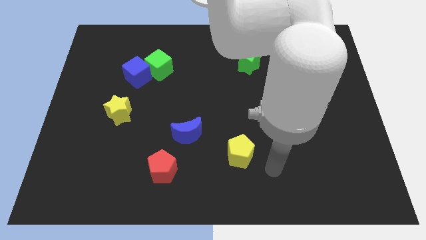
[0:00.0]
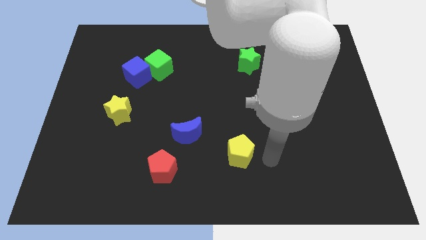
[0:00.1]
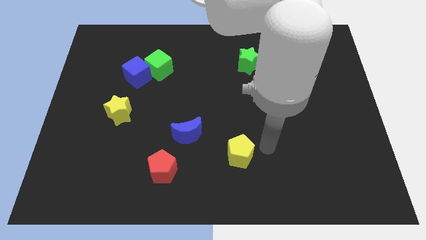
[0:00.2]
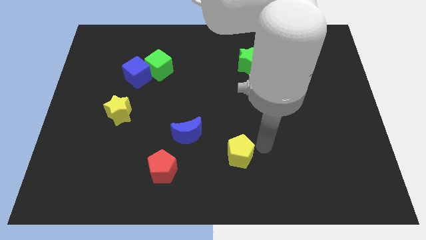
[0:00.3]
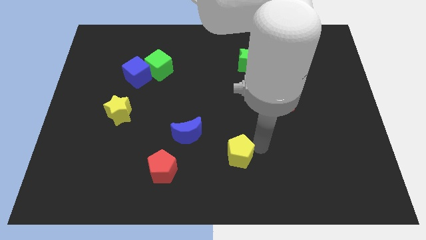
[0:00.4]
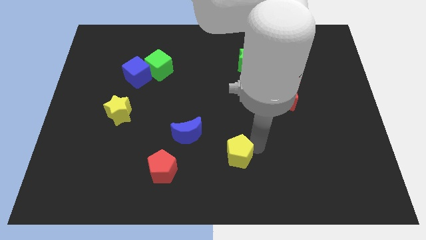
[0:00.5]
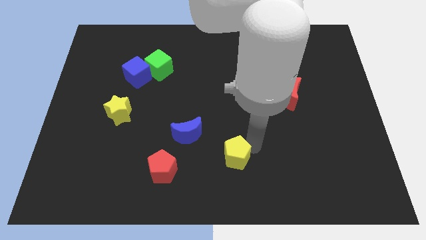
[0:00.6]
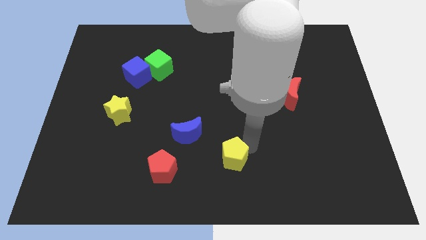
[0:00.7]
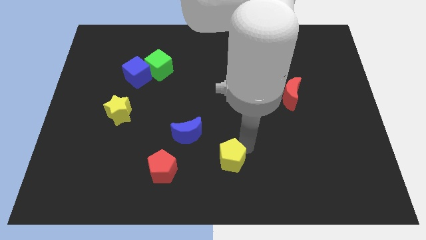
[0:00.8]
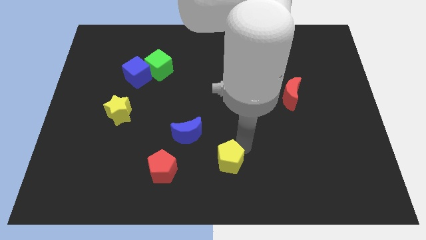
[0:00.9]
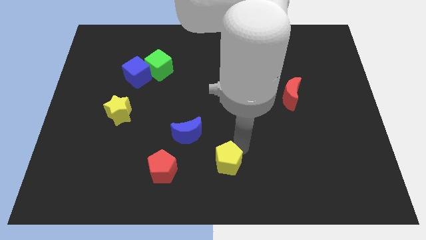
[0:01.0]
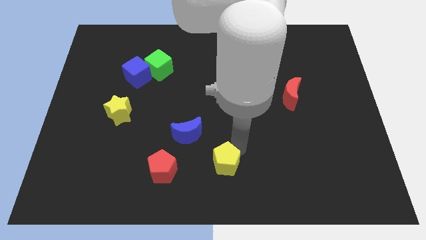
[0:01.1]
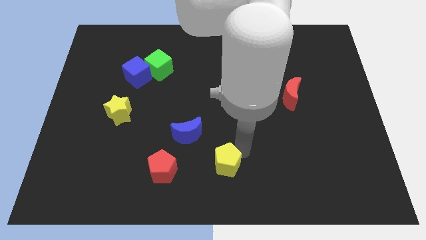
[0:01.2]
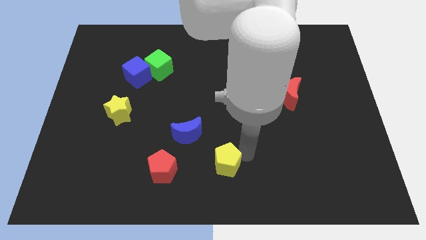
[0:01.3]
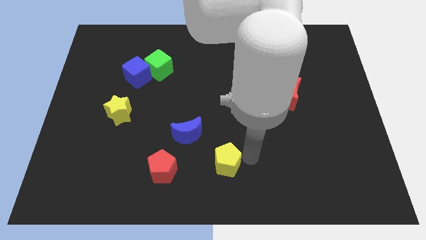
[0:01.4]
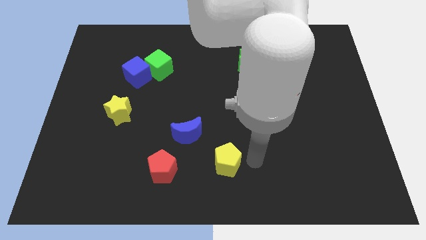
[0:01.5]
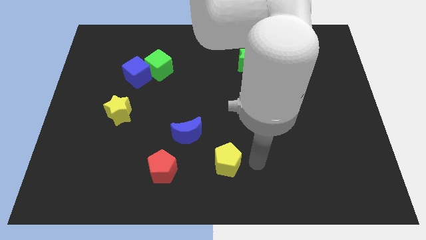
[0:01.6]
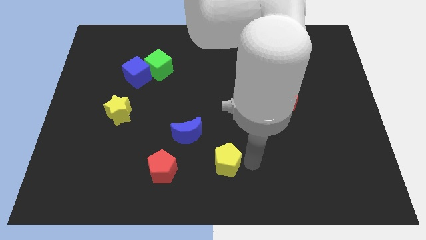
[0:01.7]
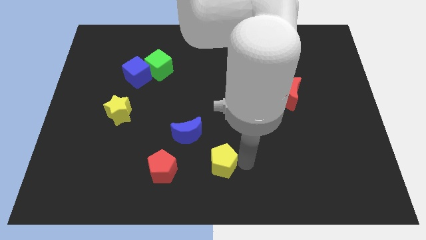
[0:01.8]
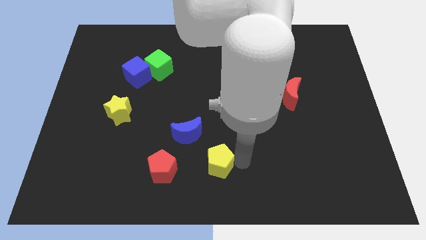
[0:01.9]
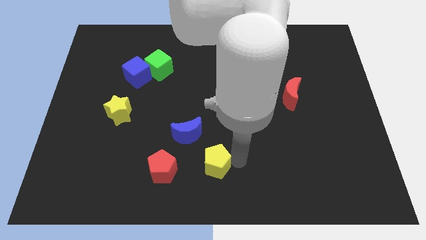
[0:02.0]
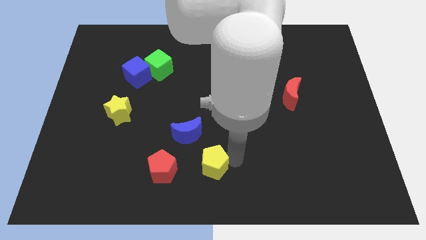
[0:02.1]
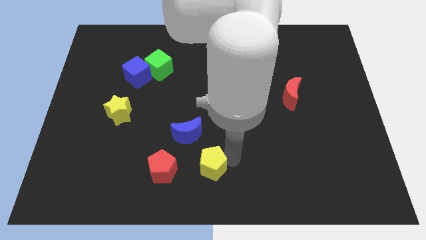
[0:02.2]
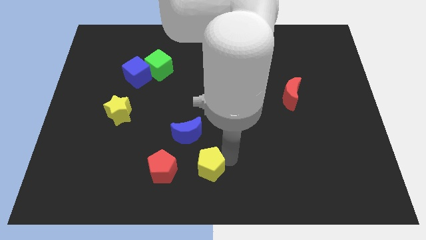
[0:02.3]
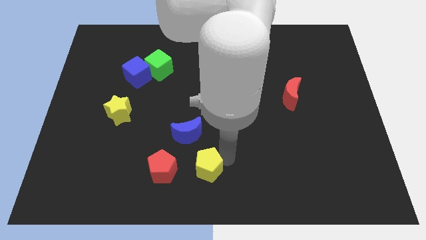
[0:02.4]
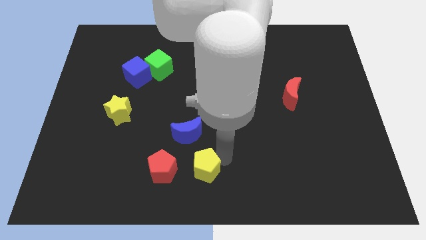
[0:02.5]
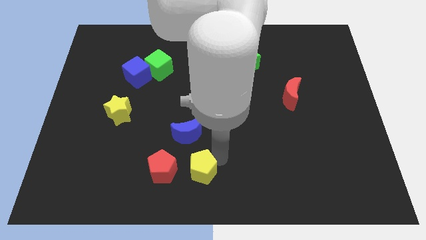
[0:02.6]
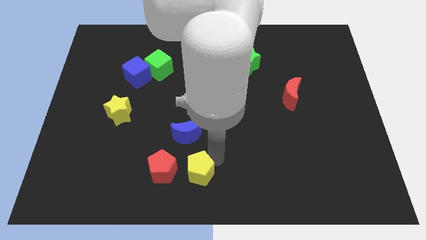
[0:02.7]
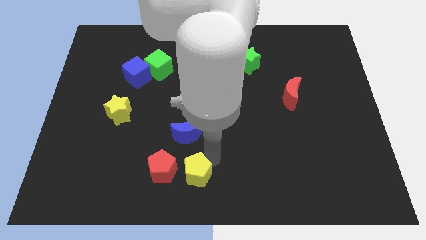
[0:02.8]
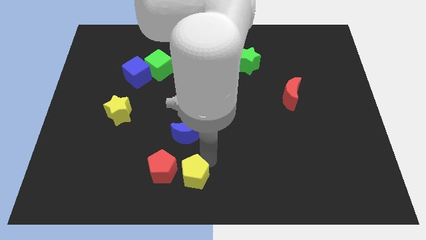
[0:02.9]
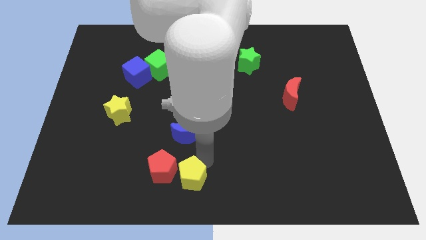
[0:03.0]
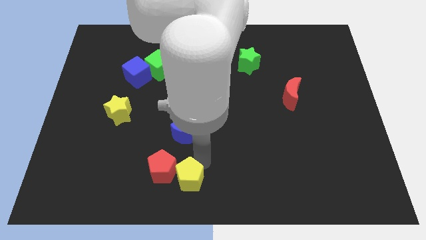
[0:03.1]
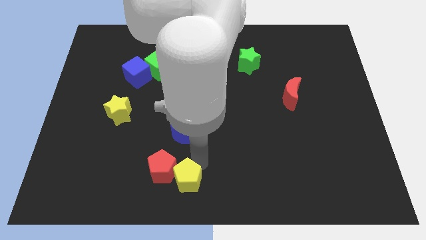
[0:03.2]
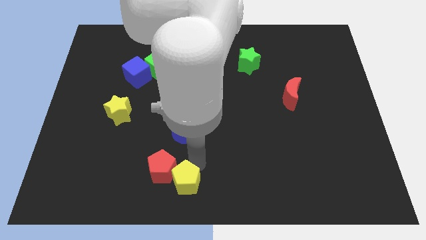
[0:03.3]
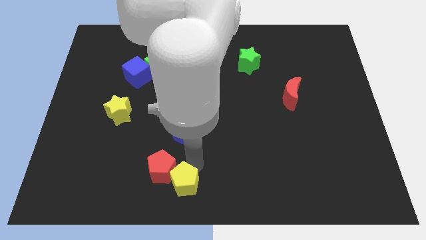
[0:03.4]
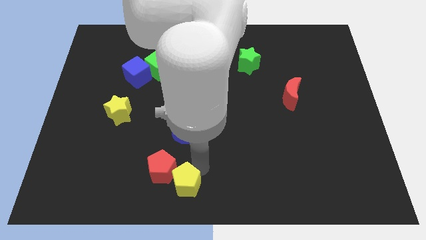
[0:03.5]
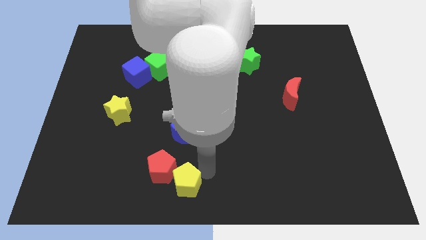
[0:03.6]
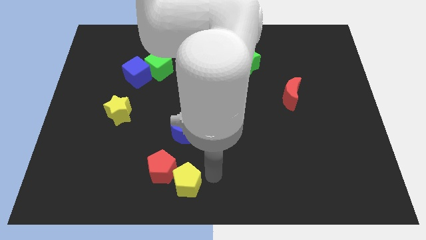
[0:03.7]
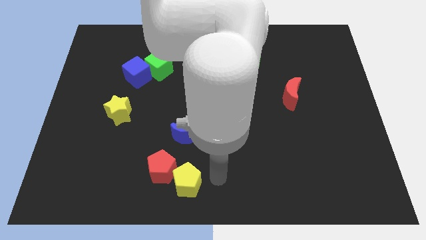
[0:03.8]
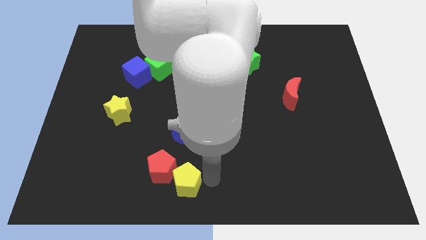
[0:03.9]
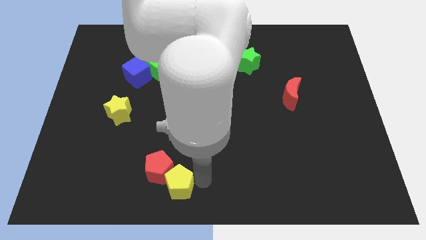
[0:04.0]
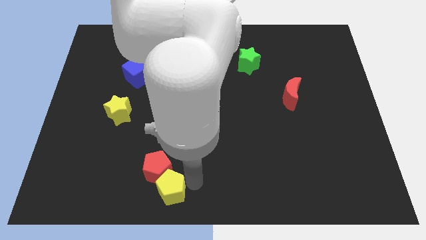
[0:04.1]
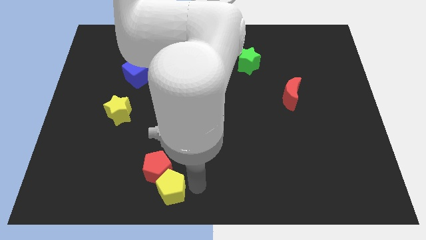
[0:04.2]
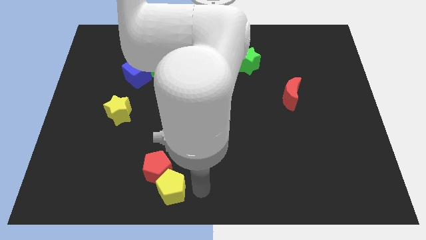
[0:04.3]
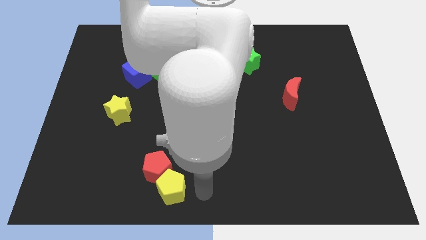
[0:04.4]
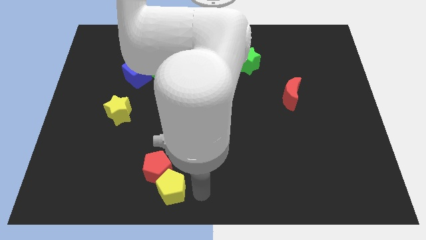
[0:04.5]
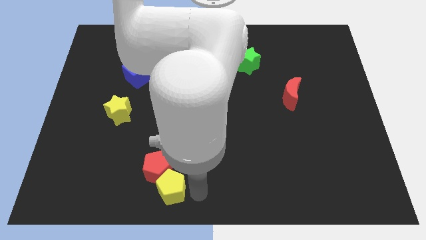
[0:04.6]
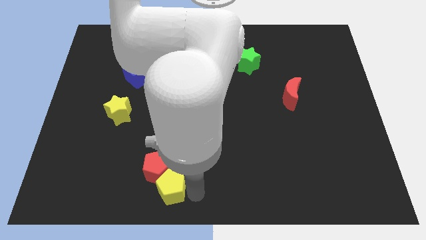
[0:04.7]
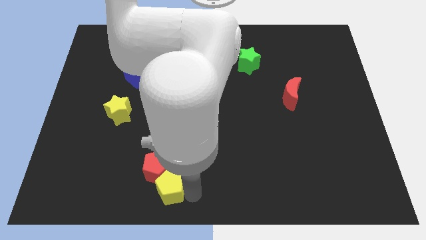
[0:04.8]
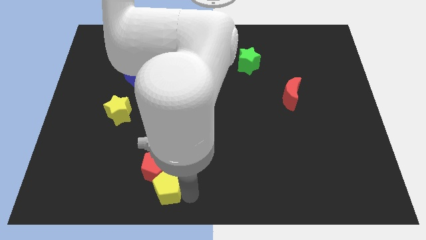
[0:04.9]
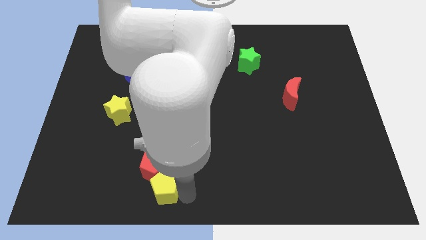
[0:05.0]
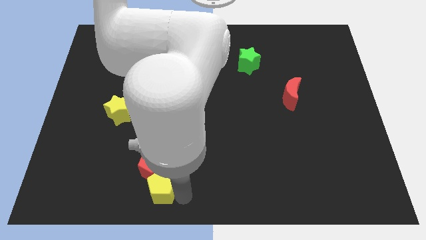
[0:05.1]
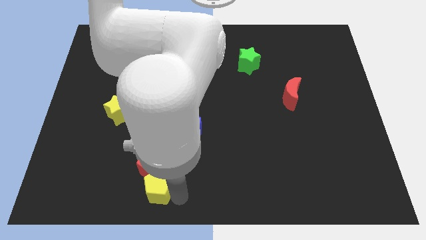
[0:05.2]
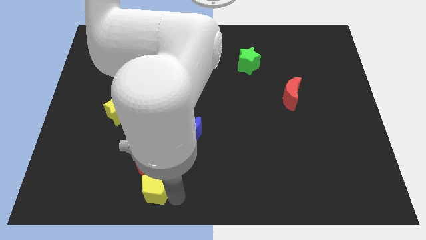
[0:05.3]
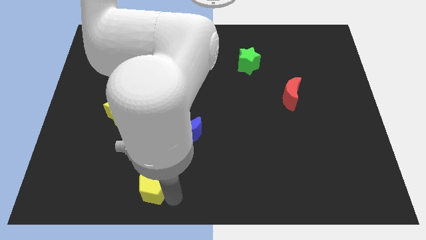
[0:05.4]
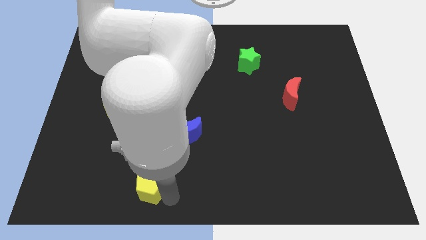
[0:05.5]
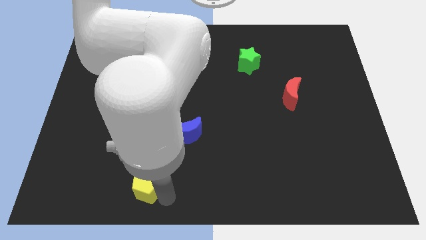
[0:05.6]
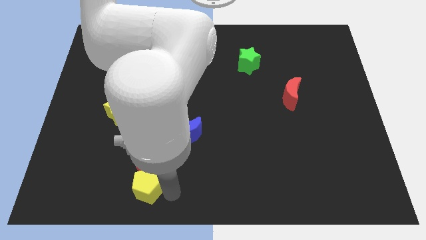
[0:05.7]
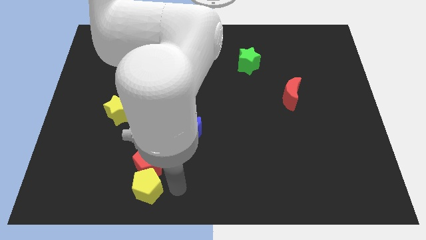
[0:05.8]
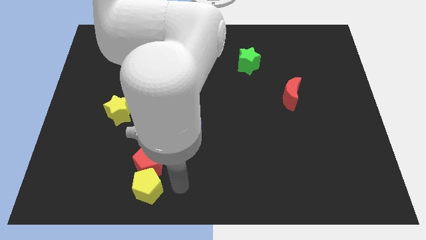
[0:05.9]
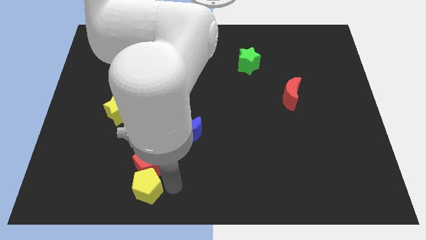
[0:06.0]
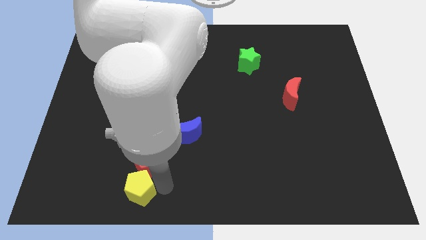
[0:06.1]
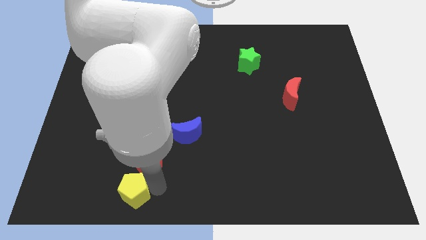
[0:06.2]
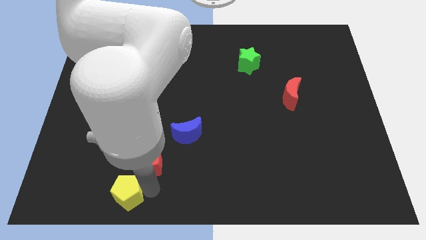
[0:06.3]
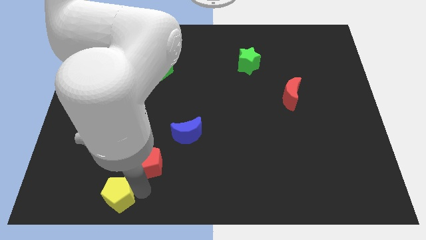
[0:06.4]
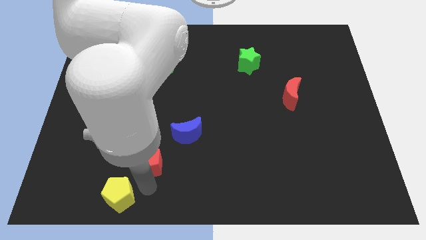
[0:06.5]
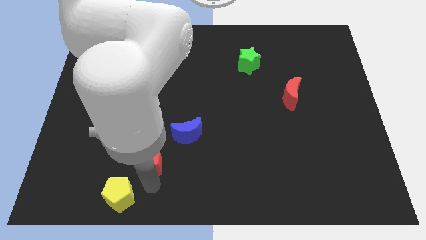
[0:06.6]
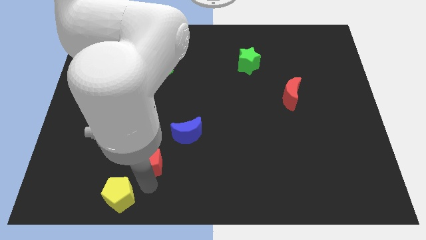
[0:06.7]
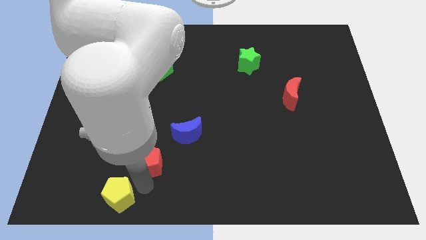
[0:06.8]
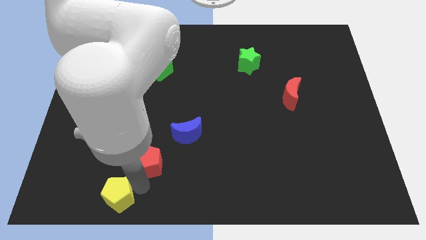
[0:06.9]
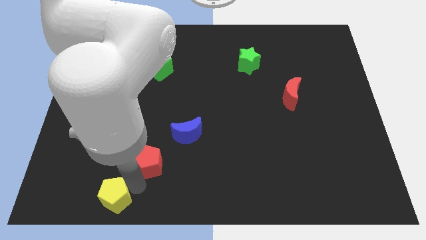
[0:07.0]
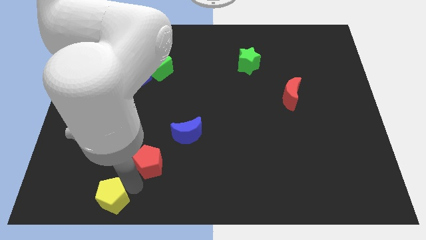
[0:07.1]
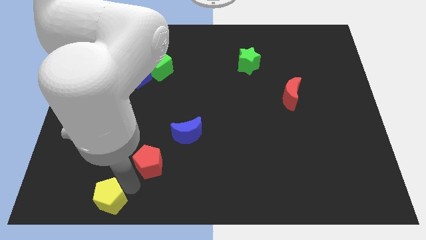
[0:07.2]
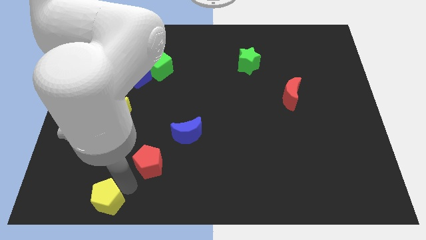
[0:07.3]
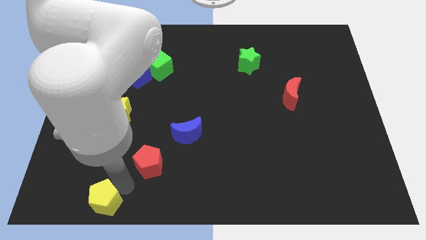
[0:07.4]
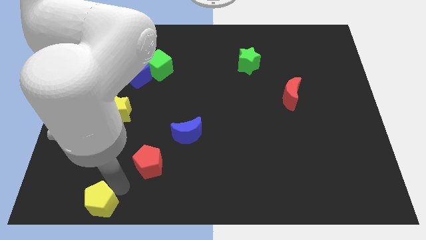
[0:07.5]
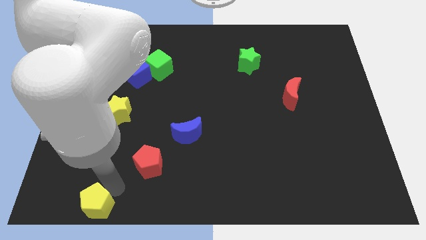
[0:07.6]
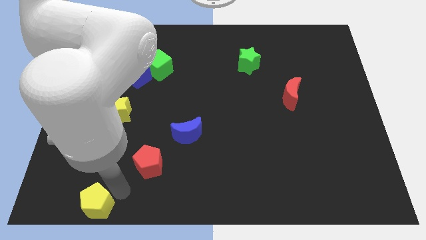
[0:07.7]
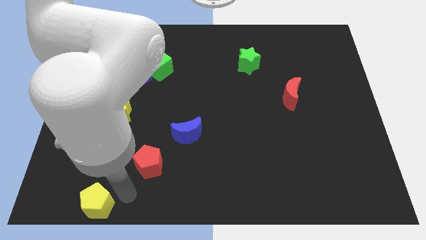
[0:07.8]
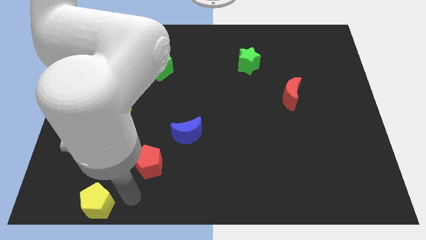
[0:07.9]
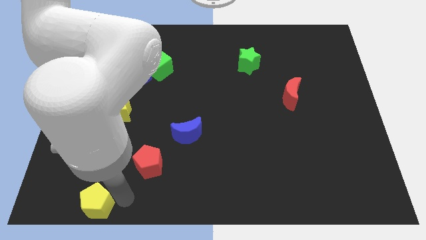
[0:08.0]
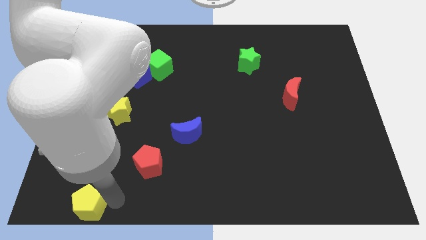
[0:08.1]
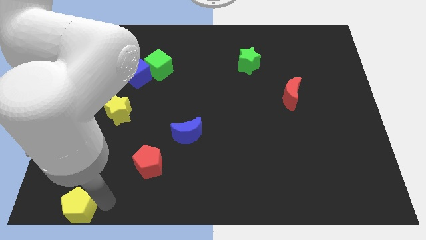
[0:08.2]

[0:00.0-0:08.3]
put the yellow pentagon to the bottom left corner

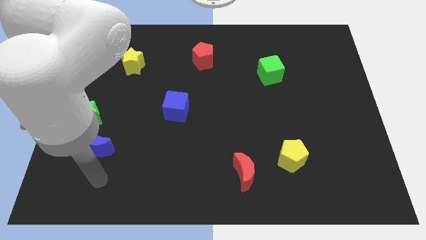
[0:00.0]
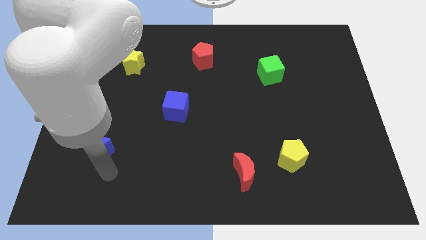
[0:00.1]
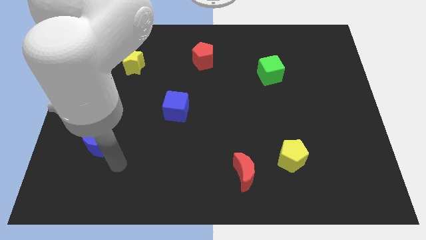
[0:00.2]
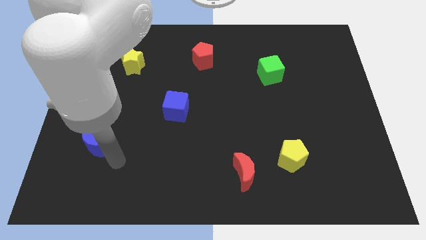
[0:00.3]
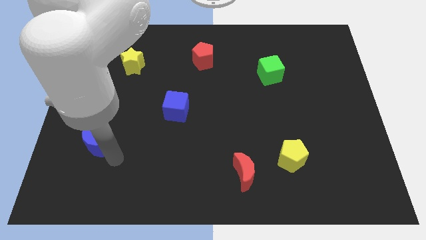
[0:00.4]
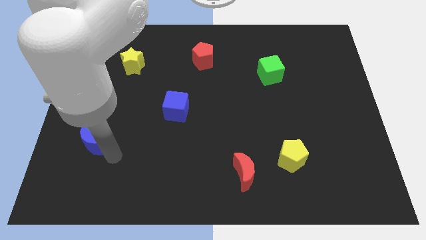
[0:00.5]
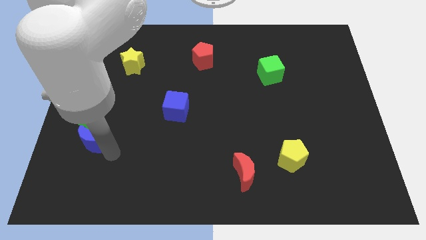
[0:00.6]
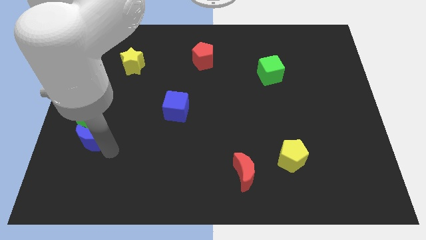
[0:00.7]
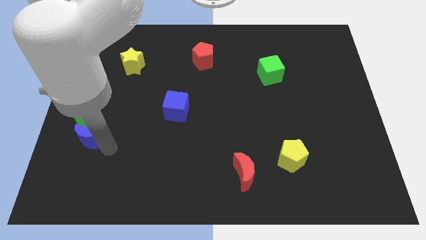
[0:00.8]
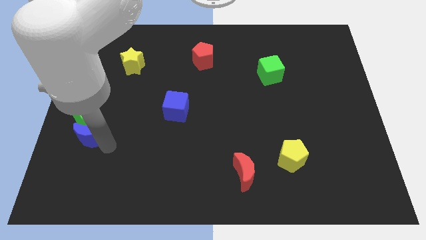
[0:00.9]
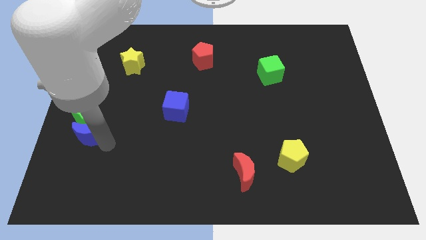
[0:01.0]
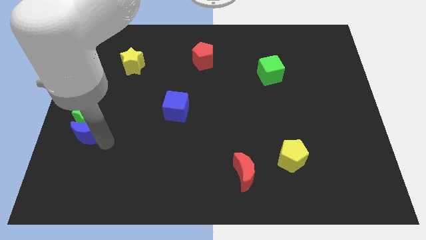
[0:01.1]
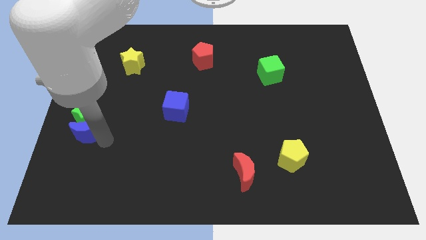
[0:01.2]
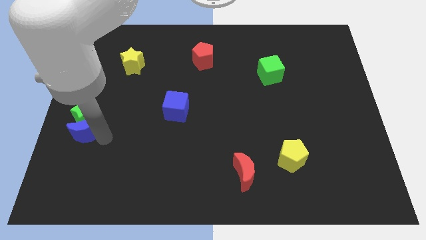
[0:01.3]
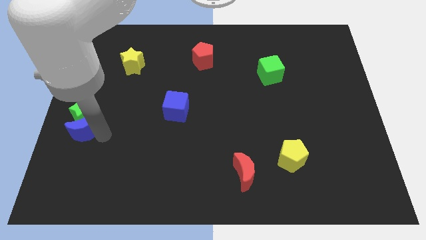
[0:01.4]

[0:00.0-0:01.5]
put the blue moon to the left side of the board
